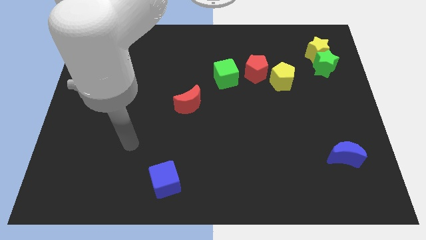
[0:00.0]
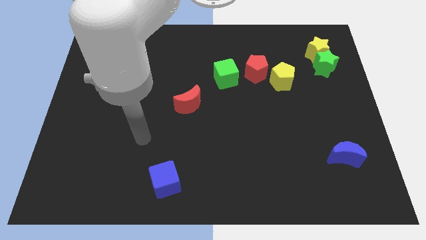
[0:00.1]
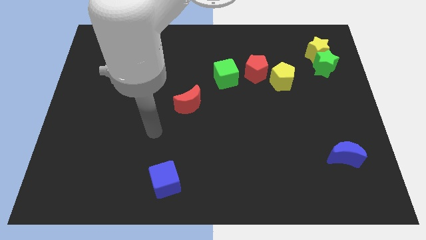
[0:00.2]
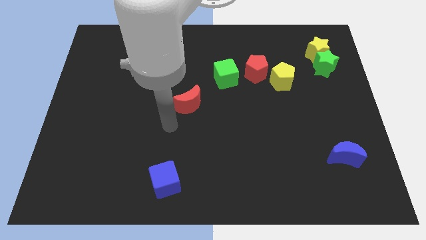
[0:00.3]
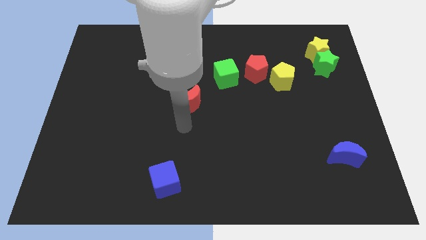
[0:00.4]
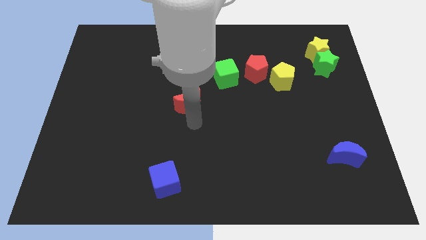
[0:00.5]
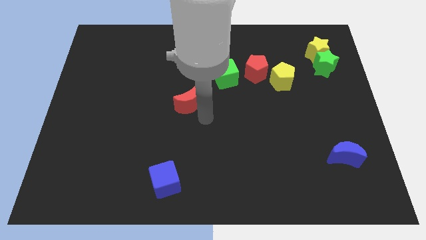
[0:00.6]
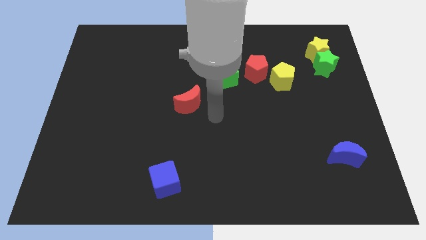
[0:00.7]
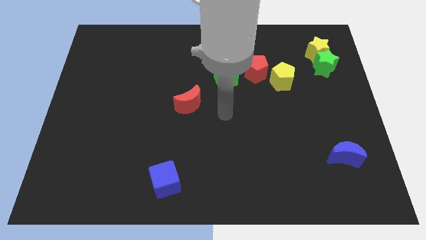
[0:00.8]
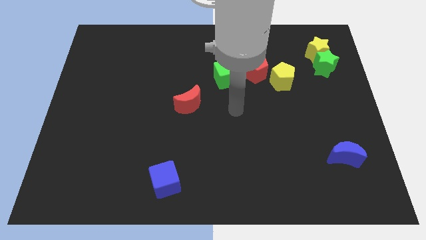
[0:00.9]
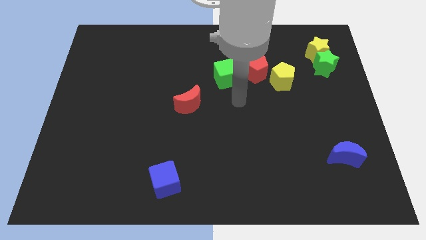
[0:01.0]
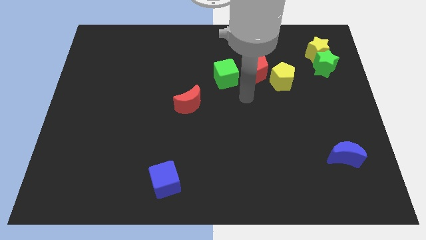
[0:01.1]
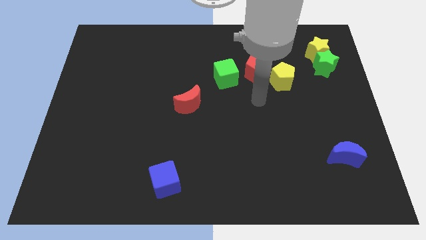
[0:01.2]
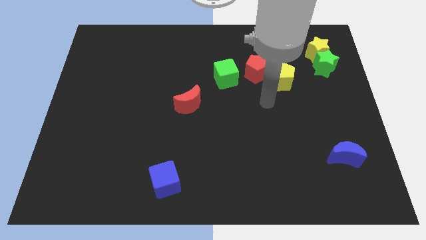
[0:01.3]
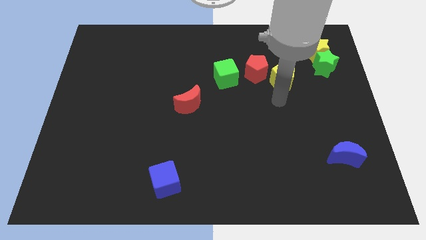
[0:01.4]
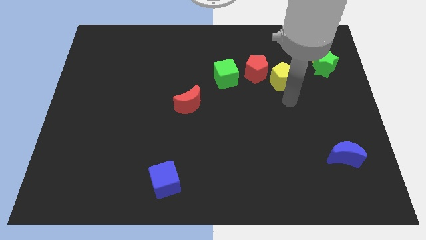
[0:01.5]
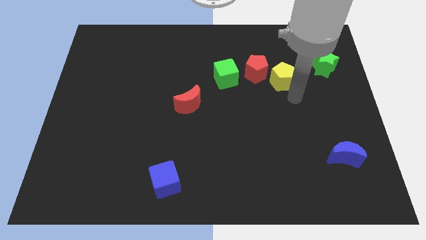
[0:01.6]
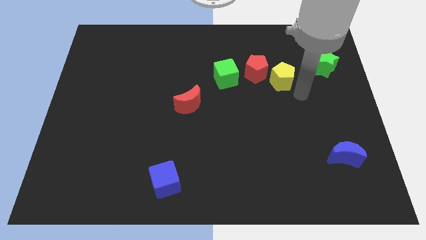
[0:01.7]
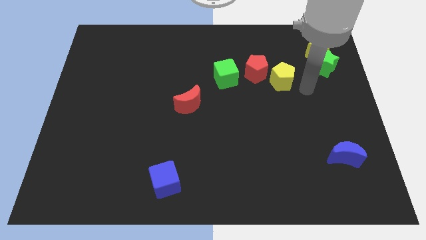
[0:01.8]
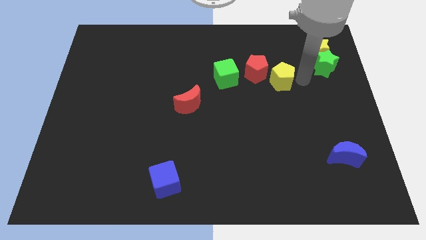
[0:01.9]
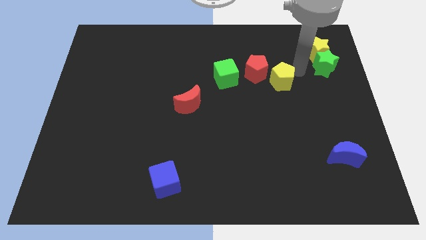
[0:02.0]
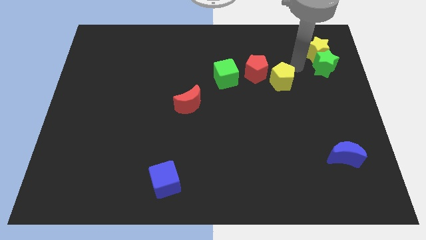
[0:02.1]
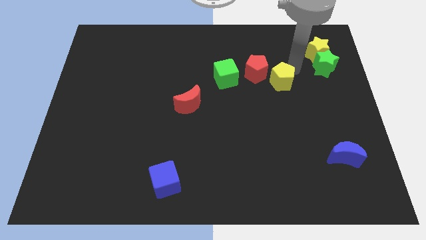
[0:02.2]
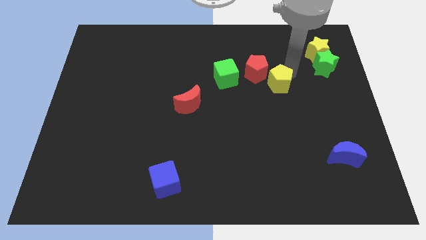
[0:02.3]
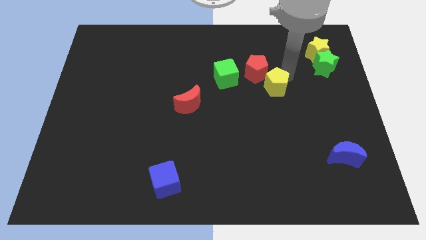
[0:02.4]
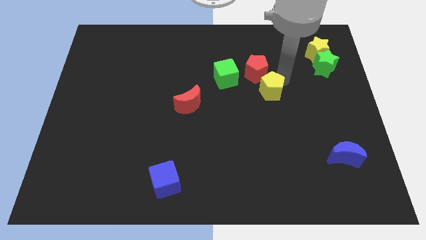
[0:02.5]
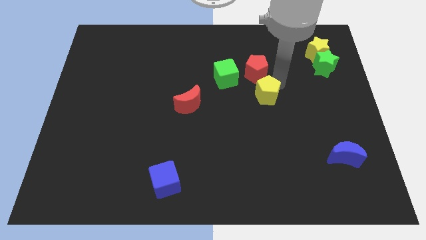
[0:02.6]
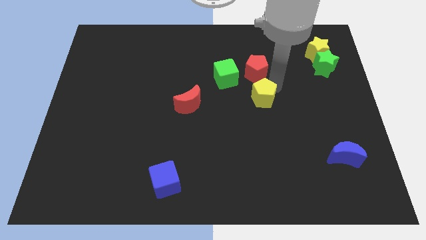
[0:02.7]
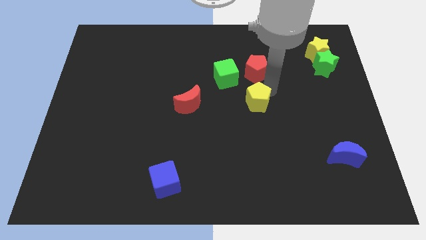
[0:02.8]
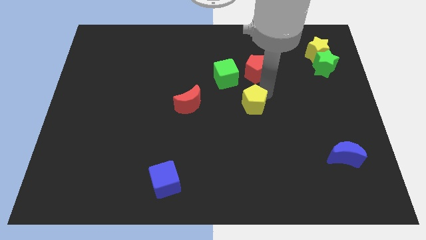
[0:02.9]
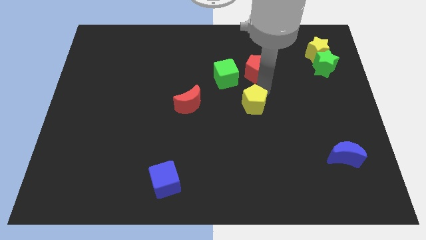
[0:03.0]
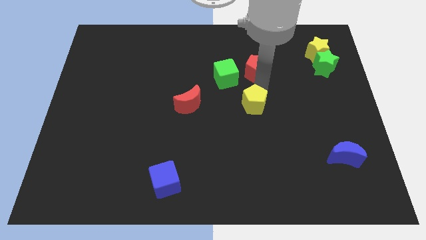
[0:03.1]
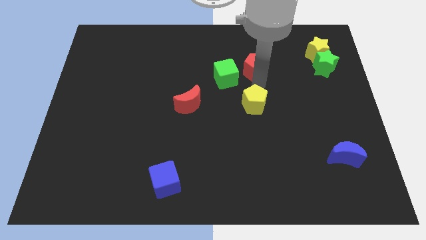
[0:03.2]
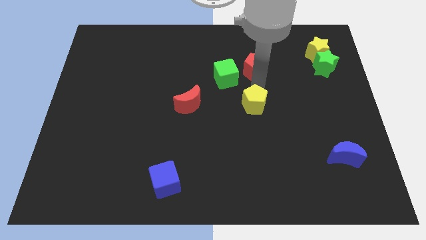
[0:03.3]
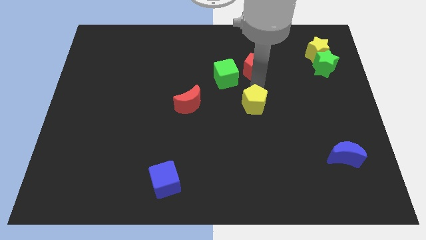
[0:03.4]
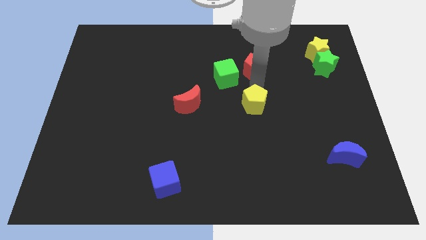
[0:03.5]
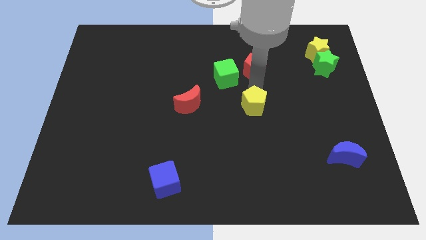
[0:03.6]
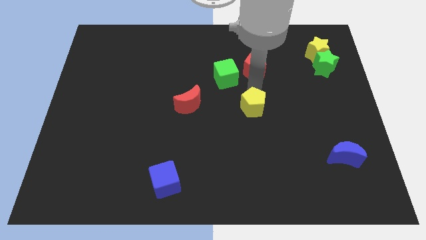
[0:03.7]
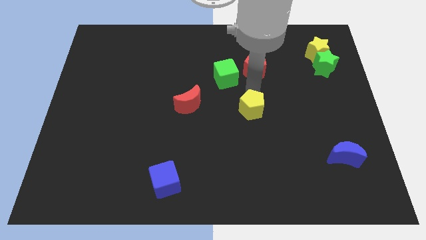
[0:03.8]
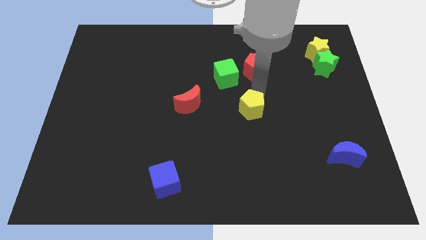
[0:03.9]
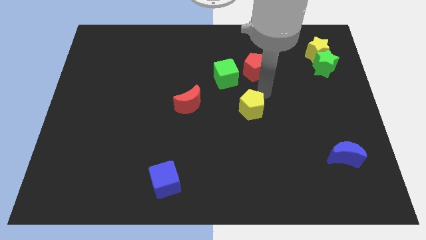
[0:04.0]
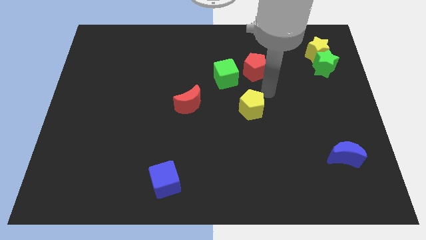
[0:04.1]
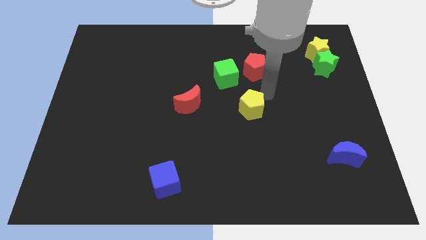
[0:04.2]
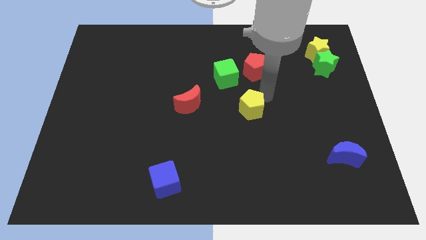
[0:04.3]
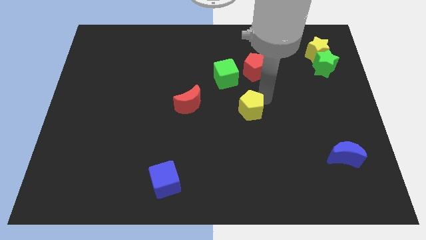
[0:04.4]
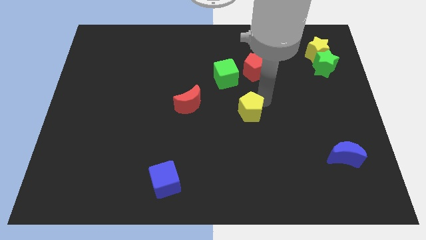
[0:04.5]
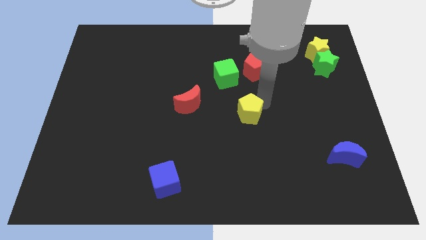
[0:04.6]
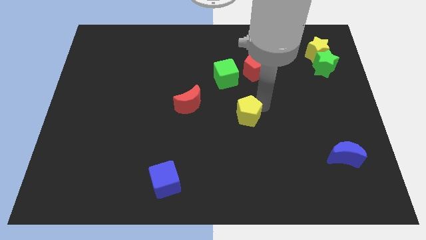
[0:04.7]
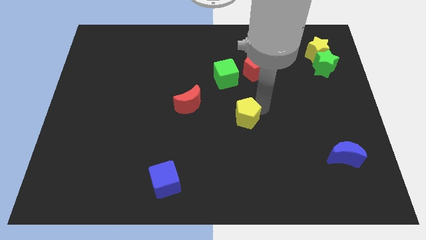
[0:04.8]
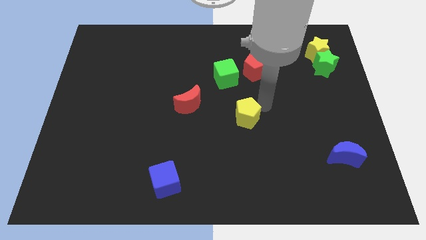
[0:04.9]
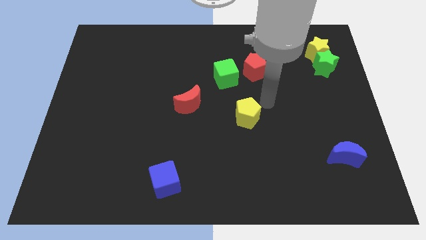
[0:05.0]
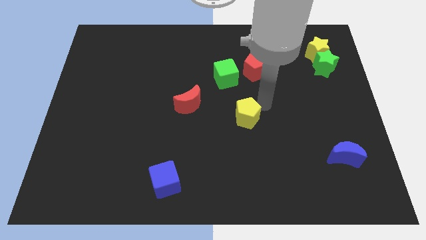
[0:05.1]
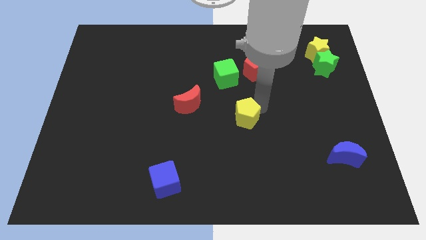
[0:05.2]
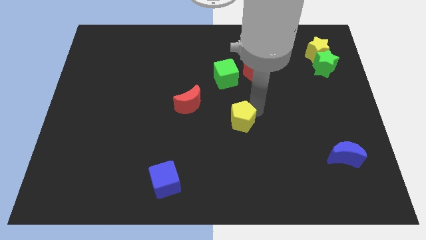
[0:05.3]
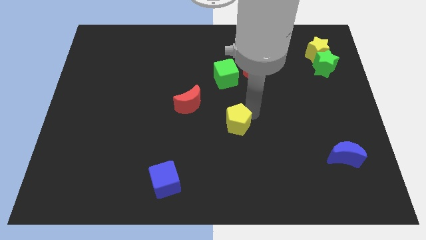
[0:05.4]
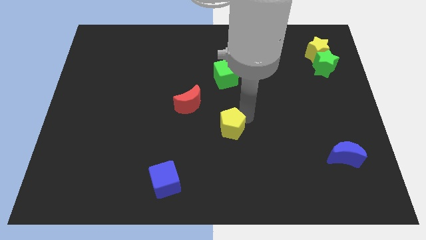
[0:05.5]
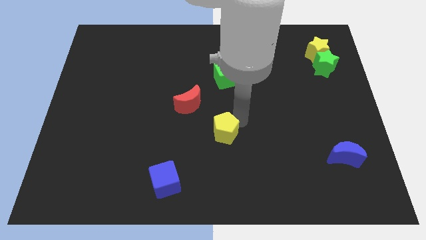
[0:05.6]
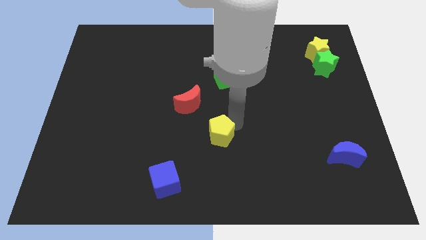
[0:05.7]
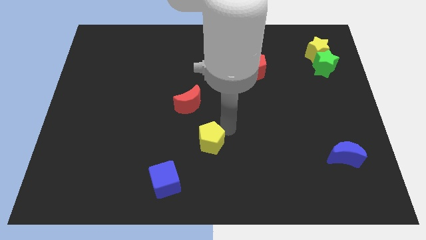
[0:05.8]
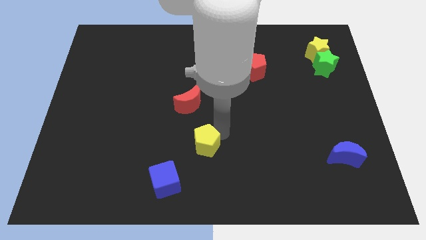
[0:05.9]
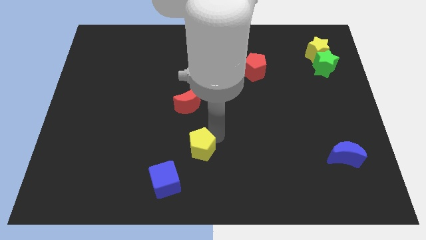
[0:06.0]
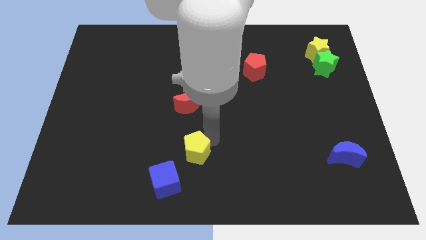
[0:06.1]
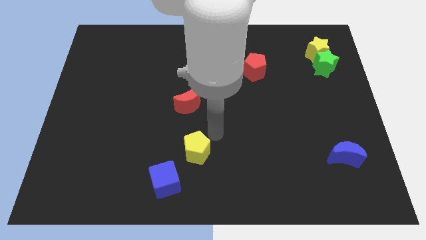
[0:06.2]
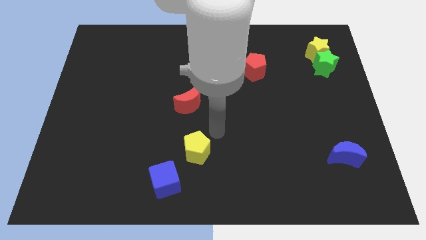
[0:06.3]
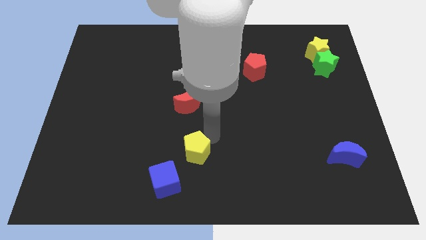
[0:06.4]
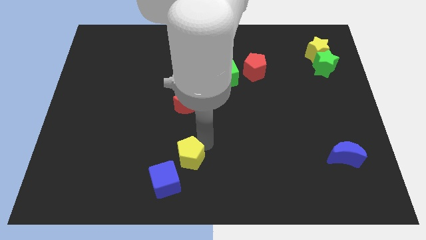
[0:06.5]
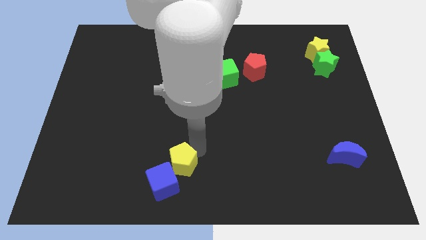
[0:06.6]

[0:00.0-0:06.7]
move the yellow pentagon towards the blue cube

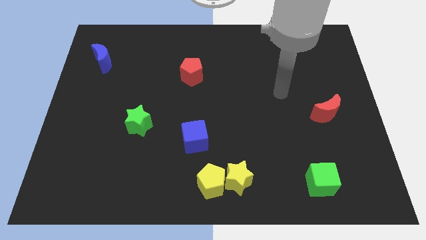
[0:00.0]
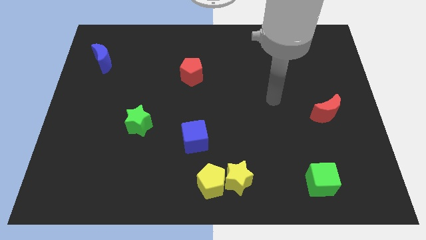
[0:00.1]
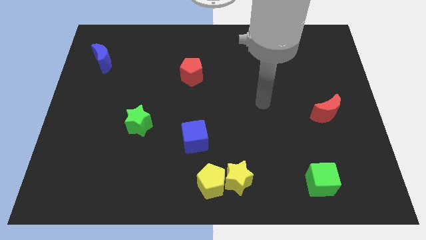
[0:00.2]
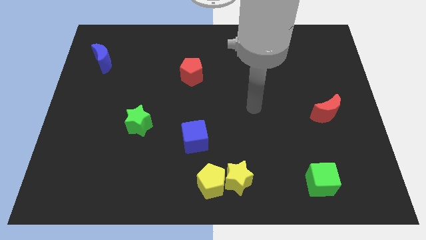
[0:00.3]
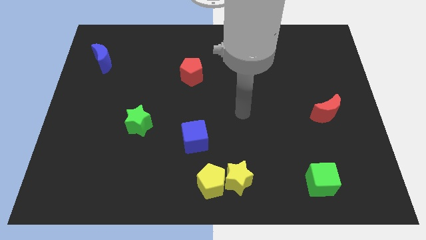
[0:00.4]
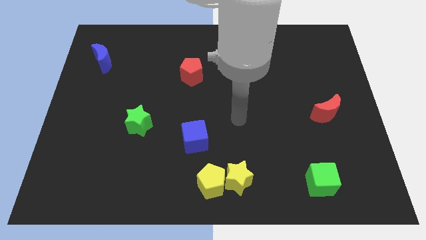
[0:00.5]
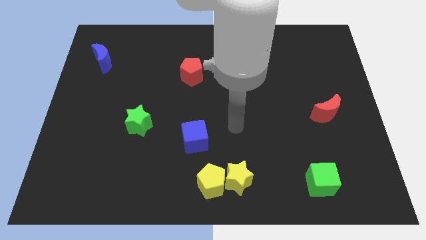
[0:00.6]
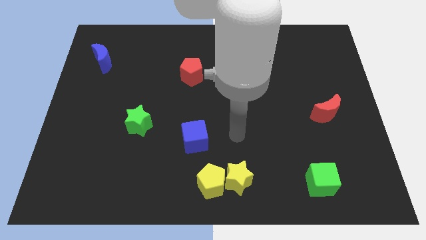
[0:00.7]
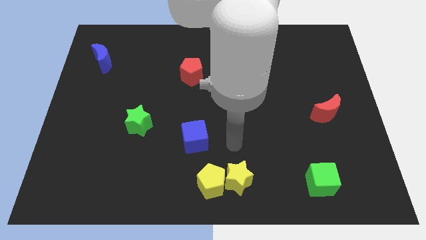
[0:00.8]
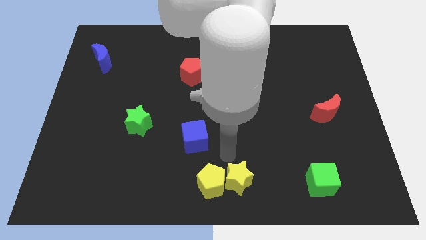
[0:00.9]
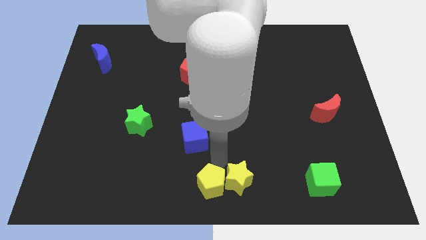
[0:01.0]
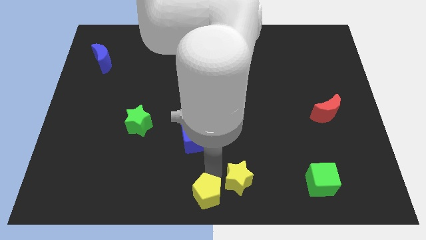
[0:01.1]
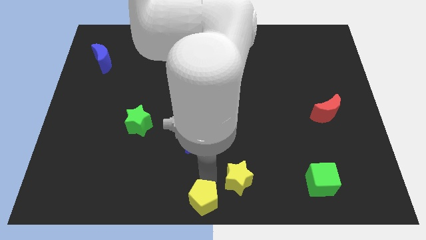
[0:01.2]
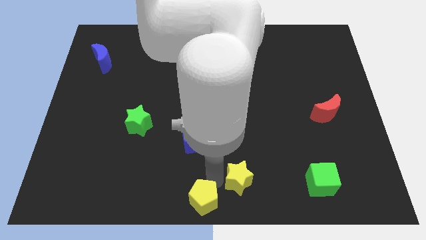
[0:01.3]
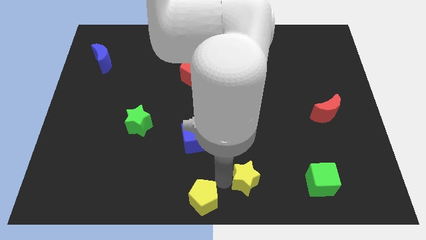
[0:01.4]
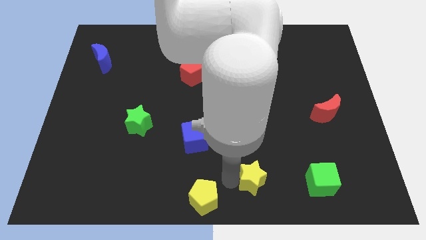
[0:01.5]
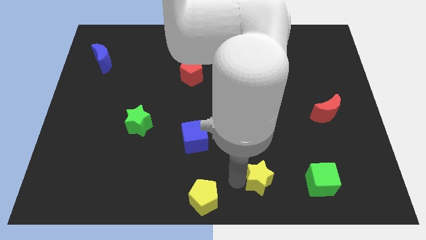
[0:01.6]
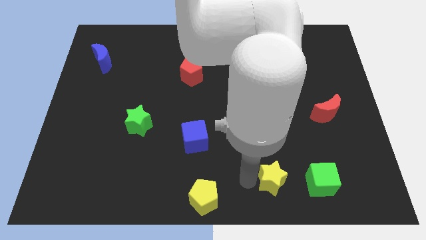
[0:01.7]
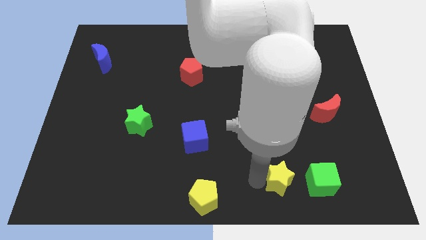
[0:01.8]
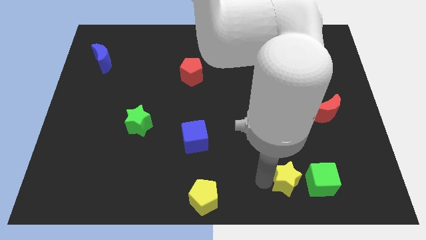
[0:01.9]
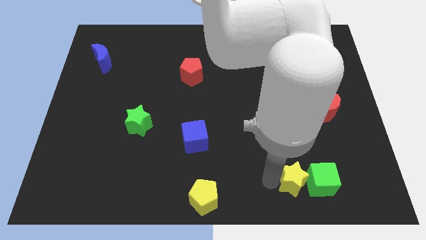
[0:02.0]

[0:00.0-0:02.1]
put the yellow star close to the green cube
